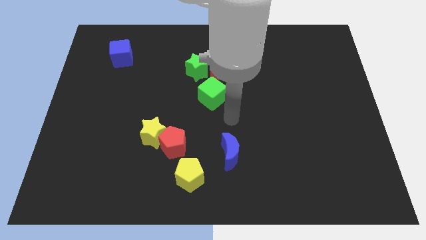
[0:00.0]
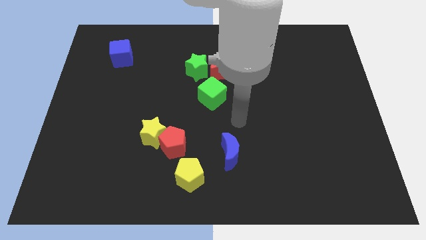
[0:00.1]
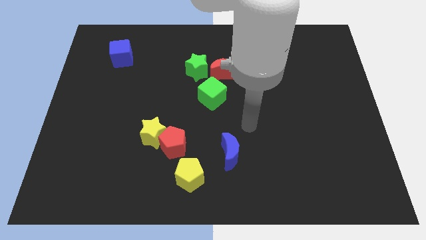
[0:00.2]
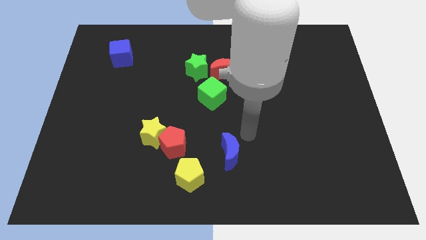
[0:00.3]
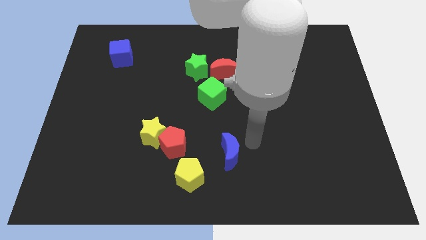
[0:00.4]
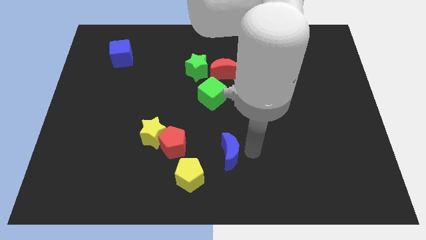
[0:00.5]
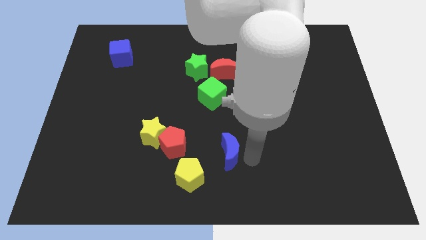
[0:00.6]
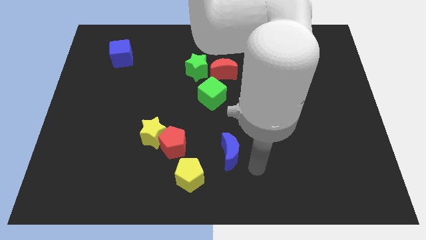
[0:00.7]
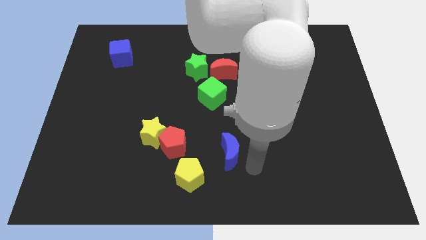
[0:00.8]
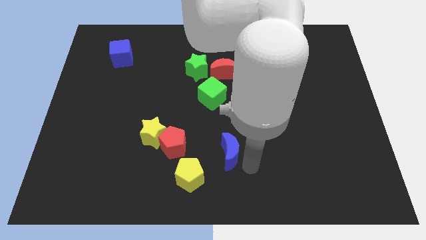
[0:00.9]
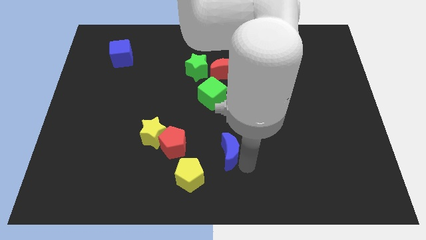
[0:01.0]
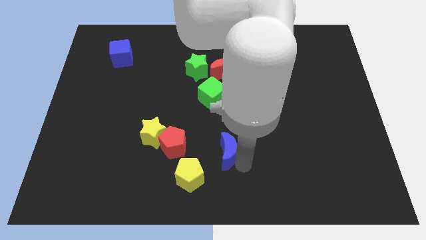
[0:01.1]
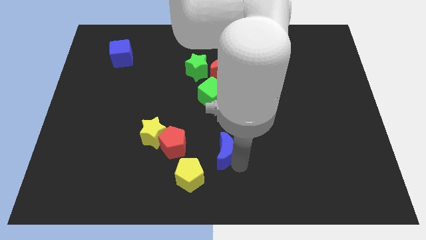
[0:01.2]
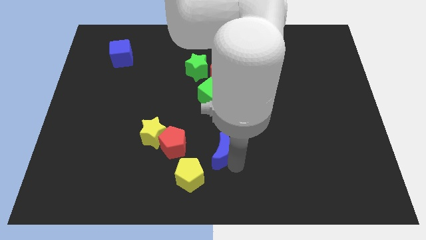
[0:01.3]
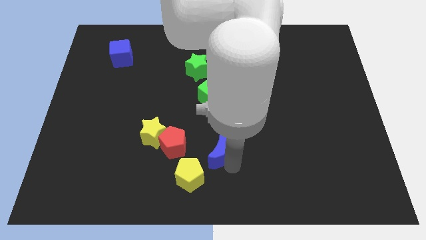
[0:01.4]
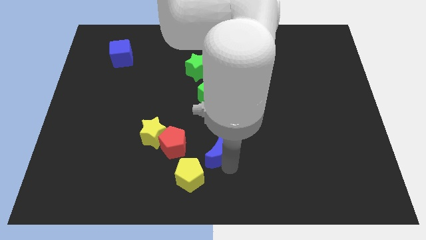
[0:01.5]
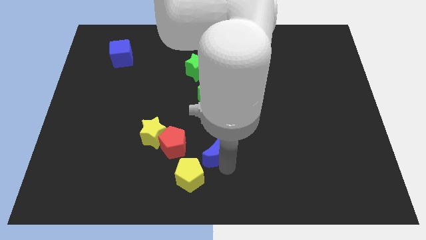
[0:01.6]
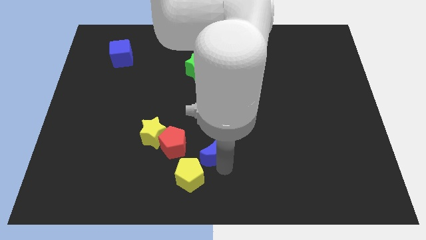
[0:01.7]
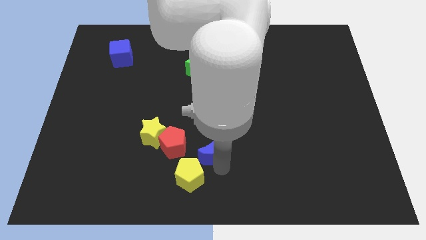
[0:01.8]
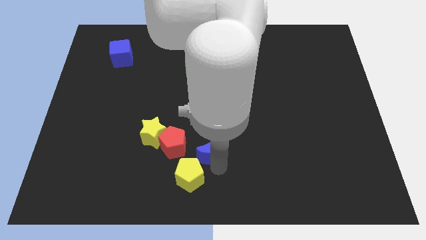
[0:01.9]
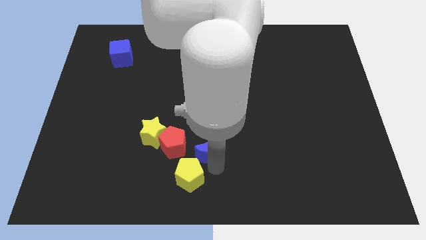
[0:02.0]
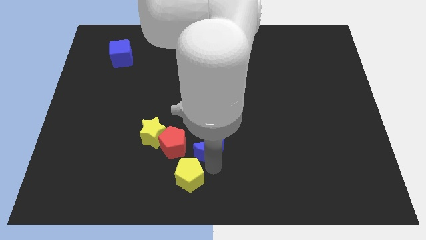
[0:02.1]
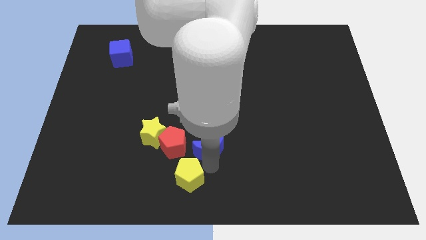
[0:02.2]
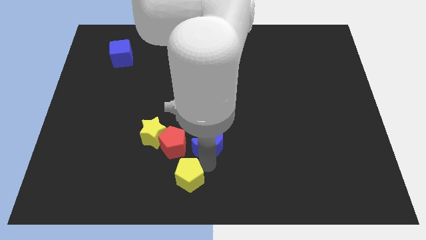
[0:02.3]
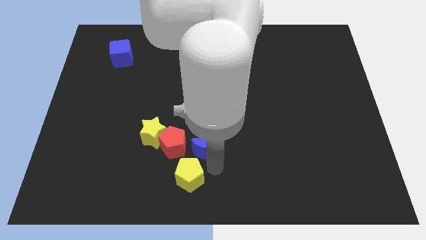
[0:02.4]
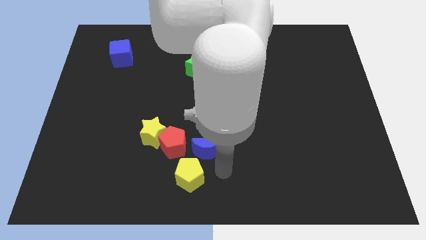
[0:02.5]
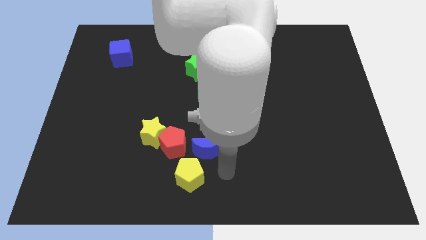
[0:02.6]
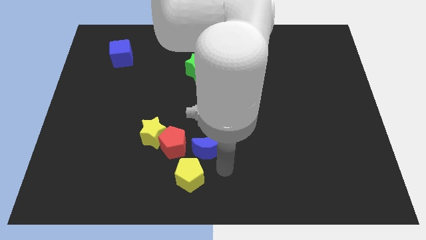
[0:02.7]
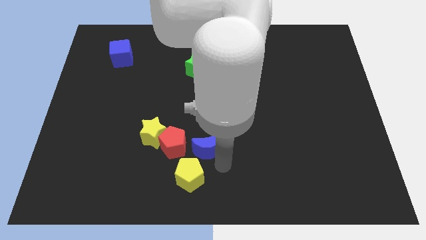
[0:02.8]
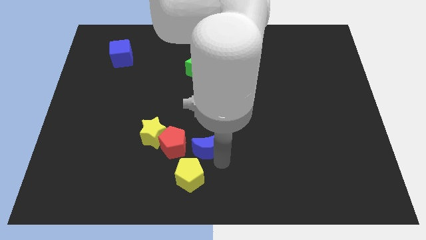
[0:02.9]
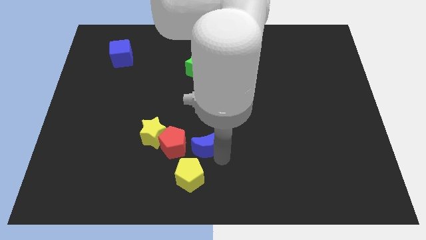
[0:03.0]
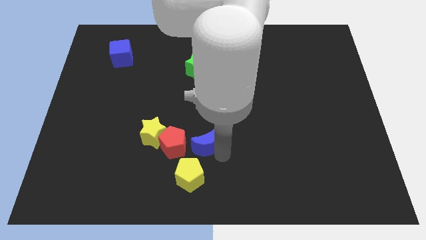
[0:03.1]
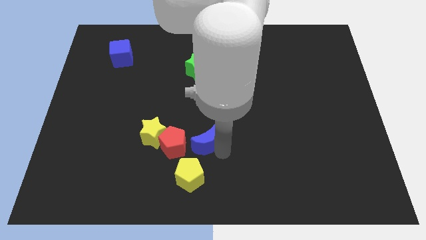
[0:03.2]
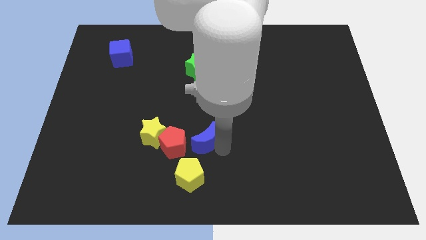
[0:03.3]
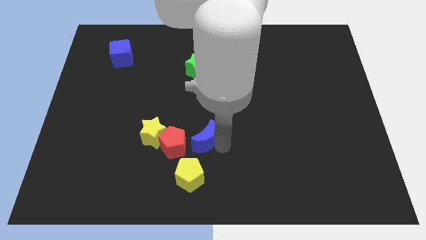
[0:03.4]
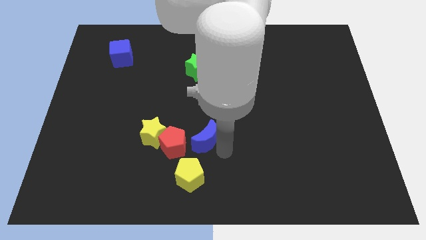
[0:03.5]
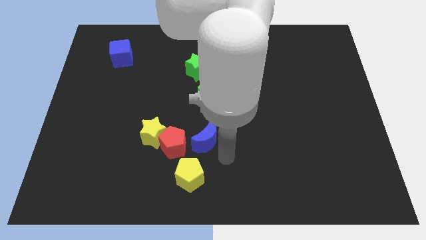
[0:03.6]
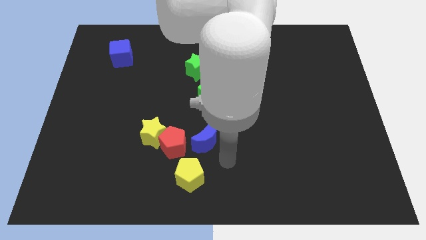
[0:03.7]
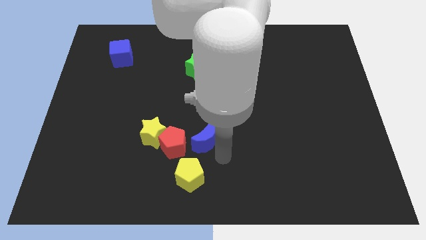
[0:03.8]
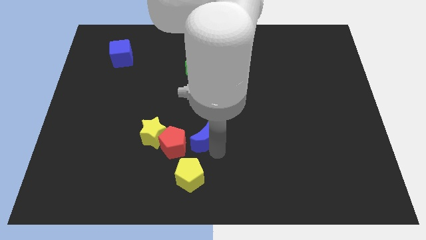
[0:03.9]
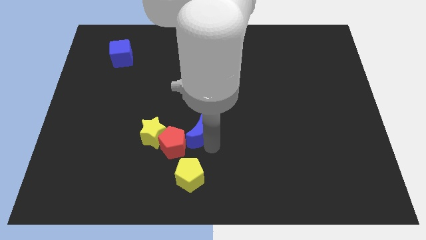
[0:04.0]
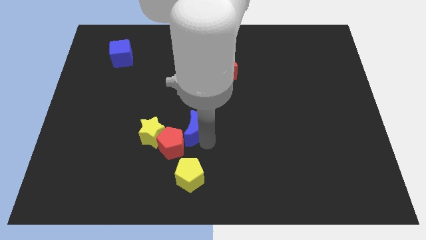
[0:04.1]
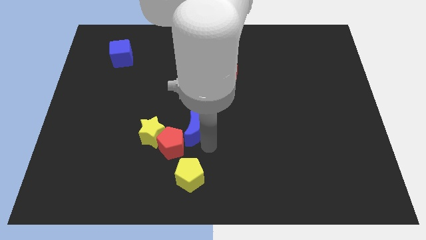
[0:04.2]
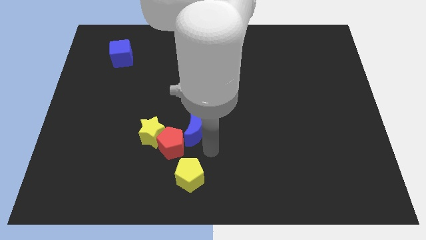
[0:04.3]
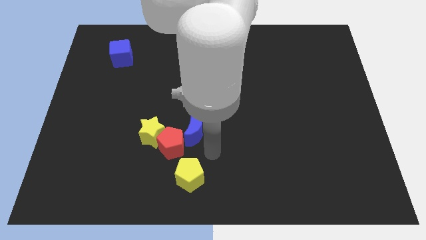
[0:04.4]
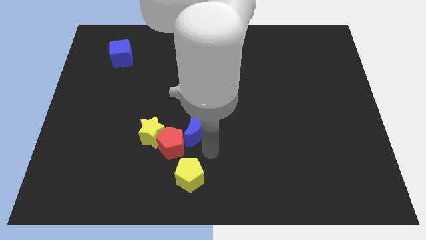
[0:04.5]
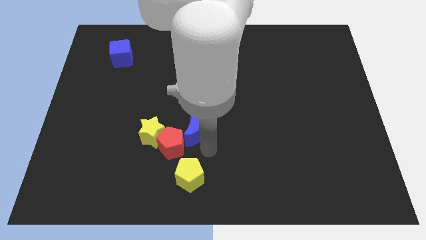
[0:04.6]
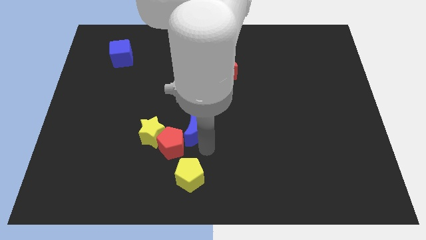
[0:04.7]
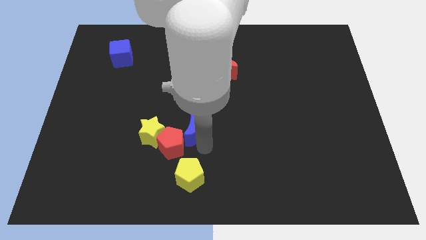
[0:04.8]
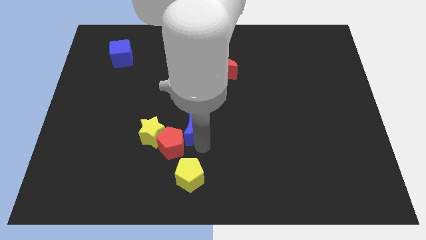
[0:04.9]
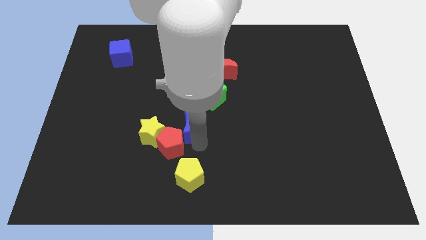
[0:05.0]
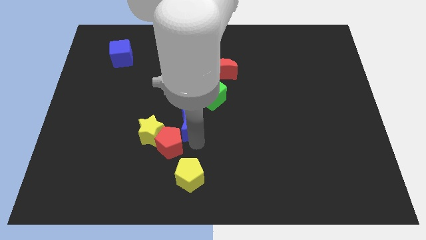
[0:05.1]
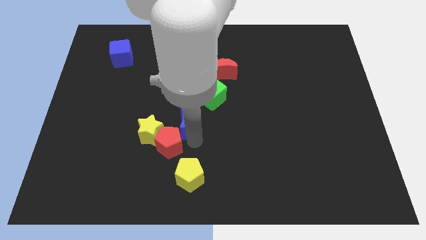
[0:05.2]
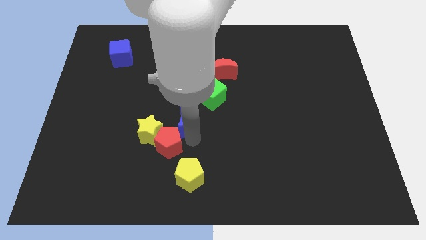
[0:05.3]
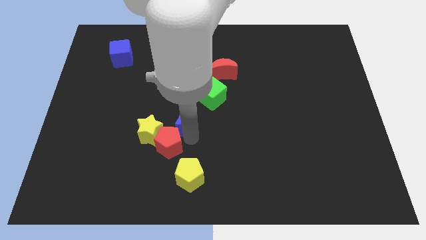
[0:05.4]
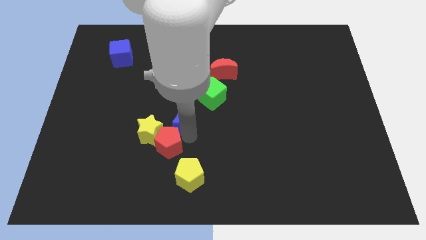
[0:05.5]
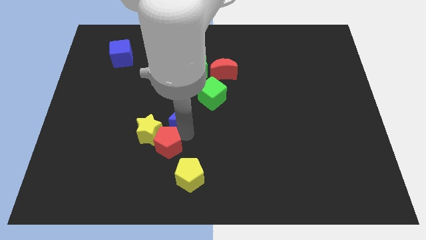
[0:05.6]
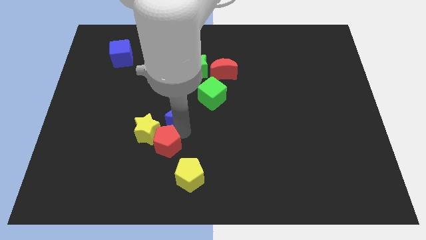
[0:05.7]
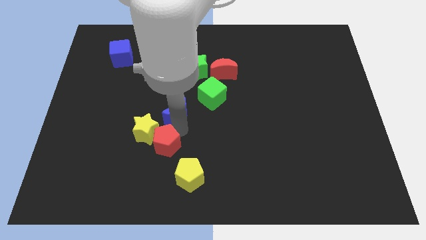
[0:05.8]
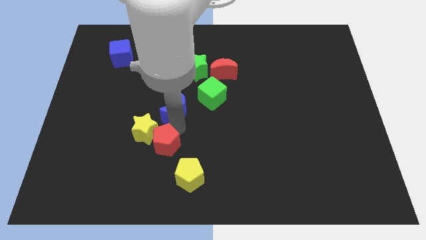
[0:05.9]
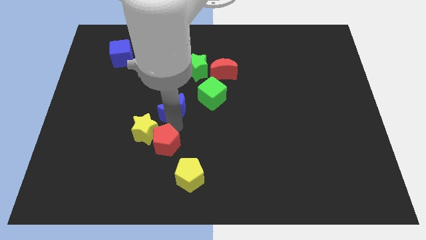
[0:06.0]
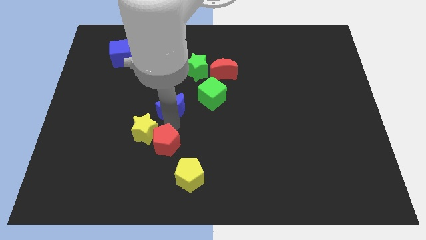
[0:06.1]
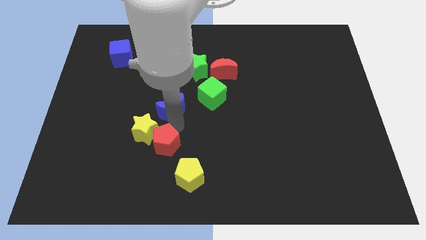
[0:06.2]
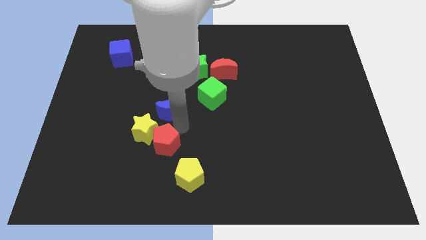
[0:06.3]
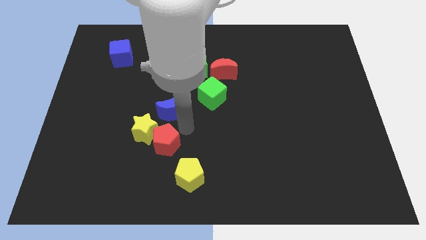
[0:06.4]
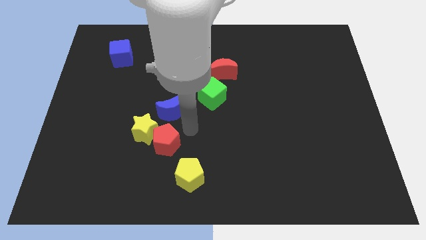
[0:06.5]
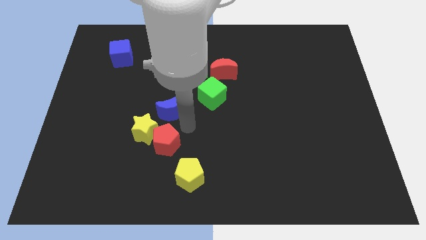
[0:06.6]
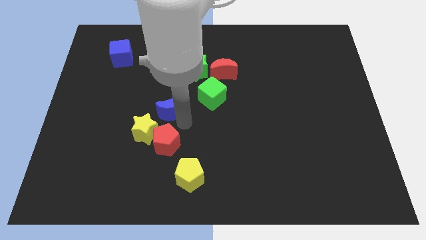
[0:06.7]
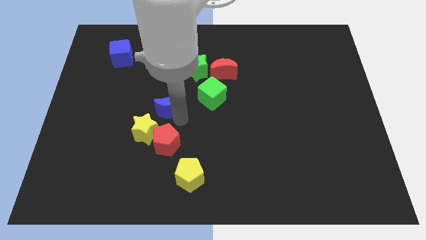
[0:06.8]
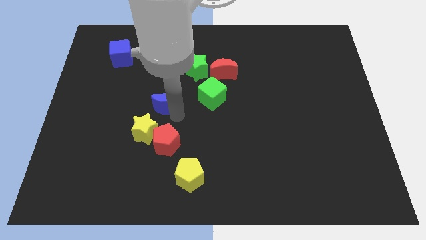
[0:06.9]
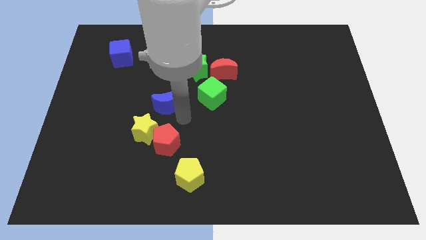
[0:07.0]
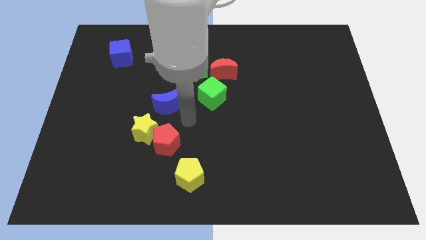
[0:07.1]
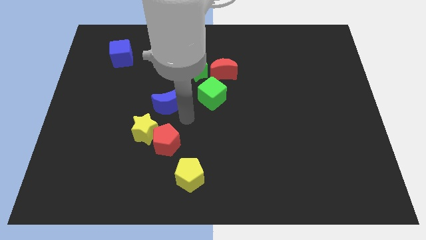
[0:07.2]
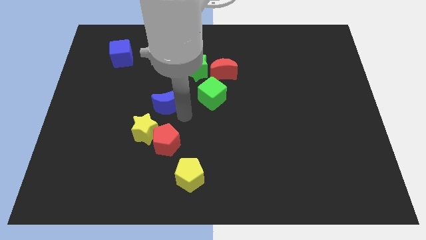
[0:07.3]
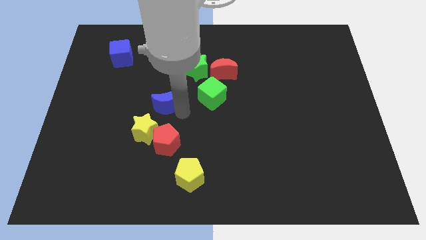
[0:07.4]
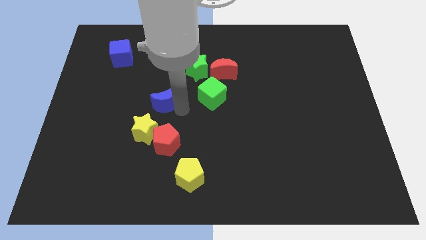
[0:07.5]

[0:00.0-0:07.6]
move the blue moon diagonally upwards and to the left
